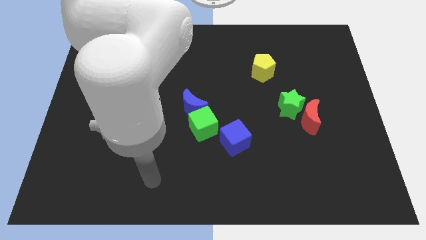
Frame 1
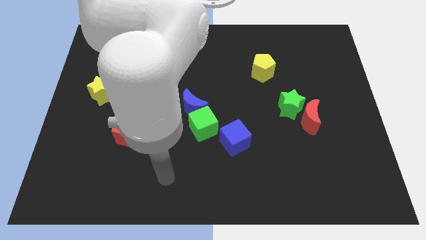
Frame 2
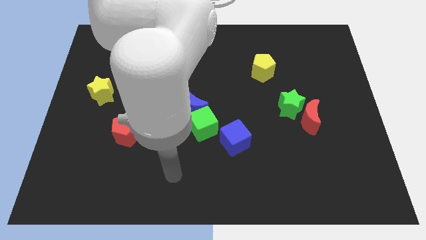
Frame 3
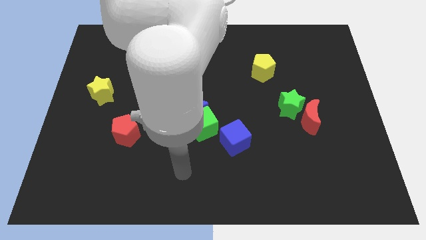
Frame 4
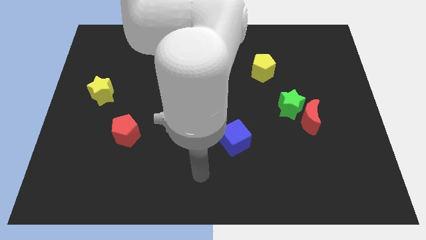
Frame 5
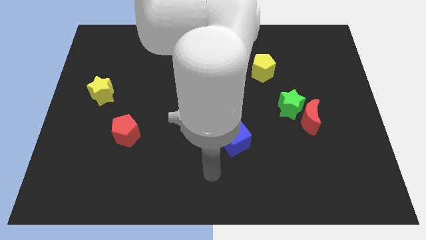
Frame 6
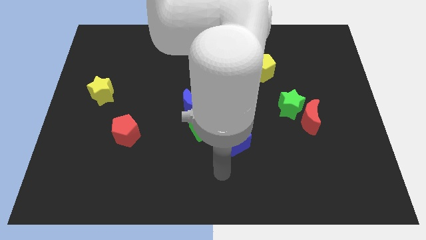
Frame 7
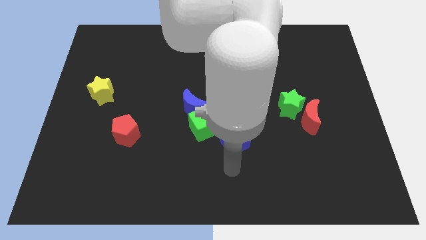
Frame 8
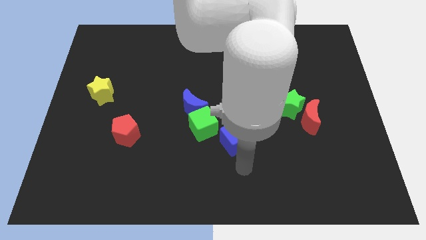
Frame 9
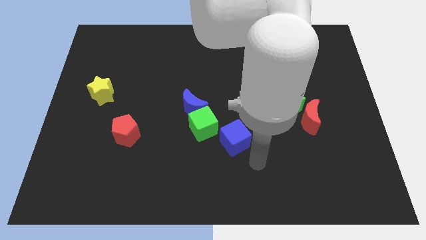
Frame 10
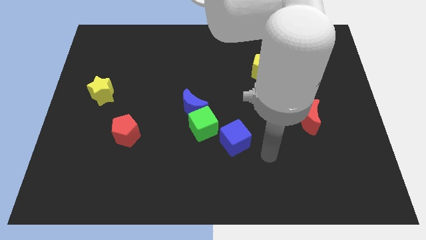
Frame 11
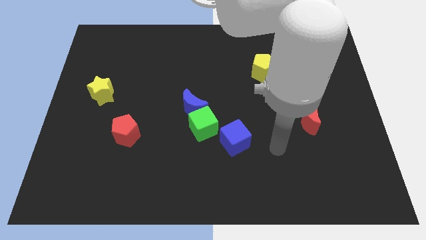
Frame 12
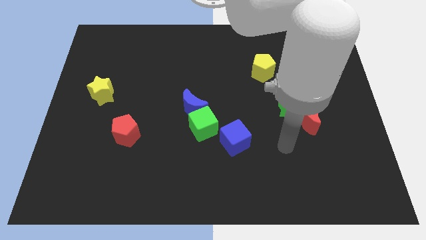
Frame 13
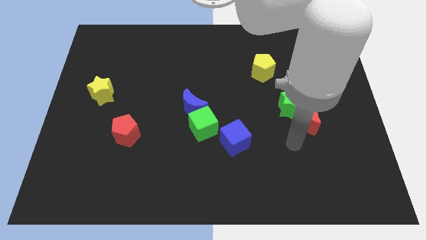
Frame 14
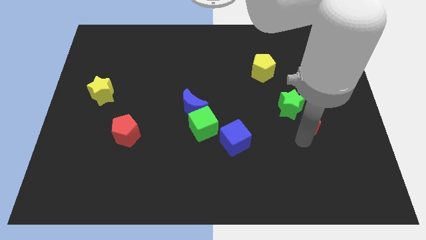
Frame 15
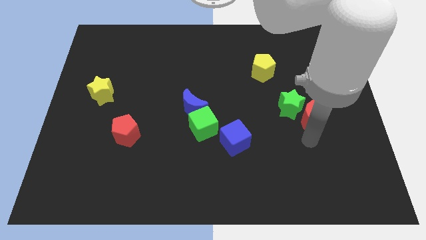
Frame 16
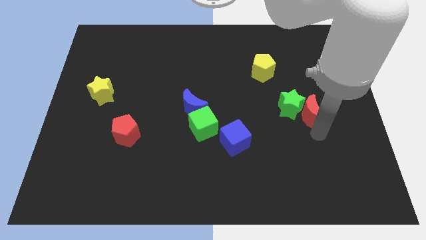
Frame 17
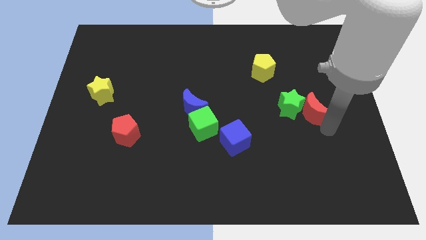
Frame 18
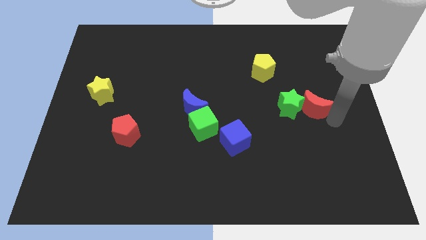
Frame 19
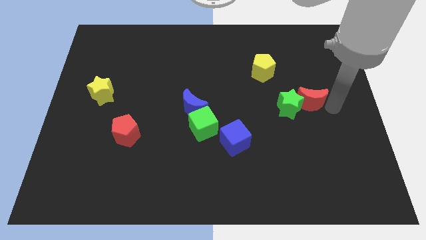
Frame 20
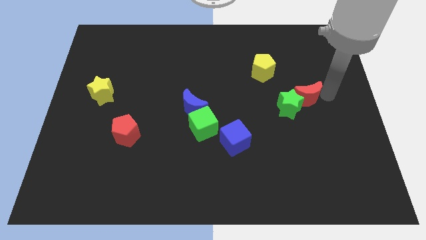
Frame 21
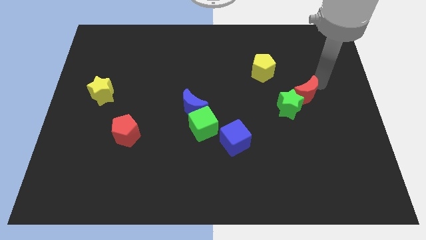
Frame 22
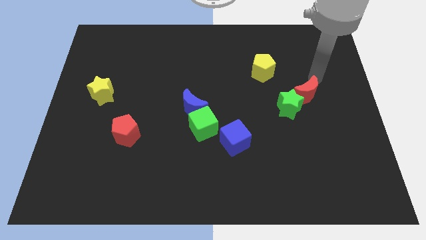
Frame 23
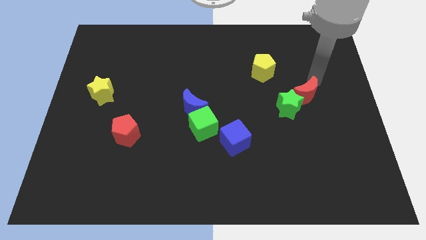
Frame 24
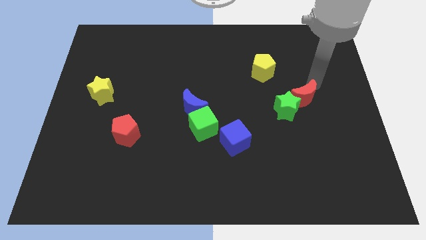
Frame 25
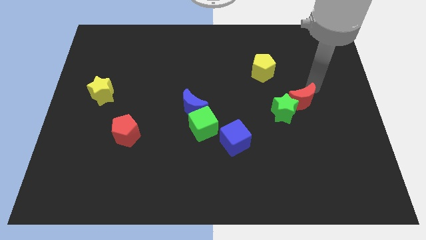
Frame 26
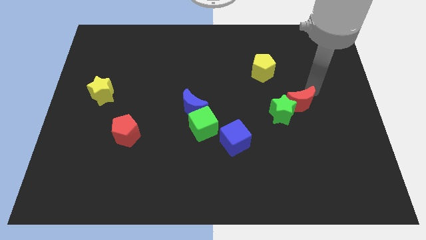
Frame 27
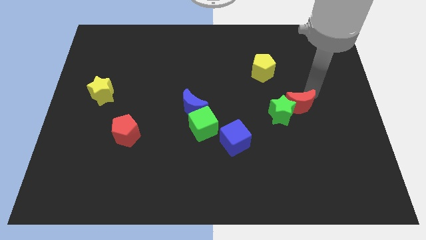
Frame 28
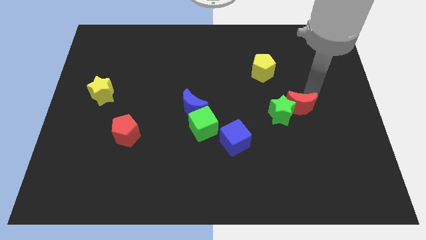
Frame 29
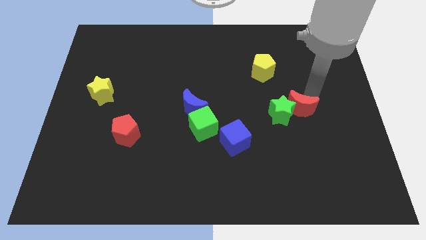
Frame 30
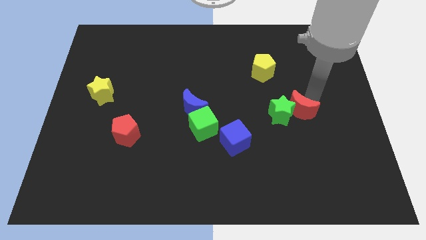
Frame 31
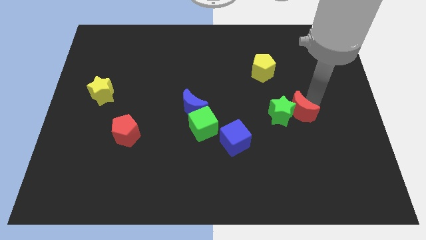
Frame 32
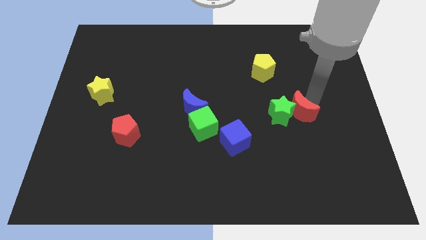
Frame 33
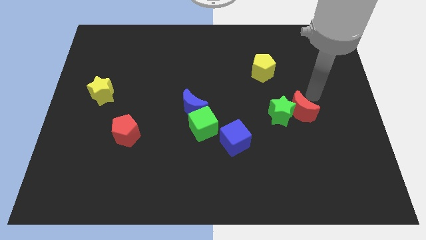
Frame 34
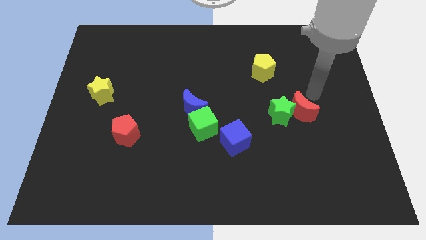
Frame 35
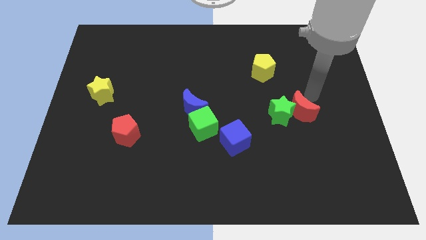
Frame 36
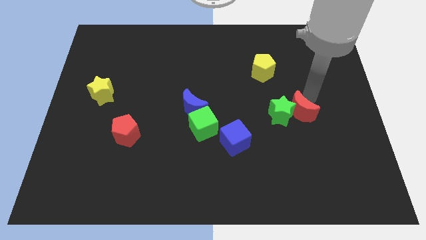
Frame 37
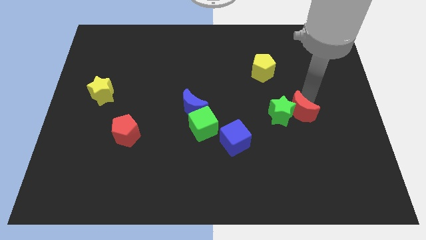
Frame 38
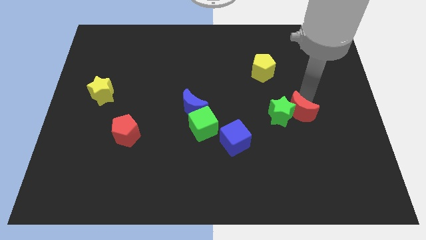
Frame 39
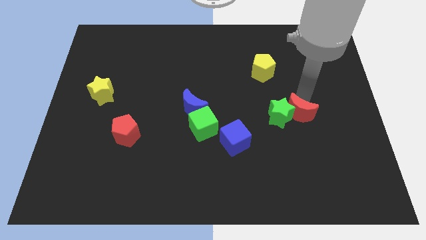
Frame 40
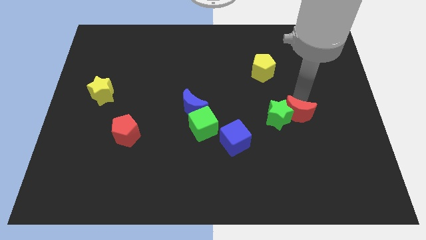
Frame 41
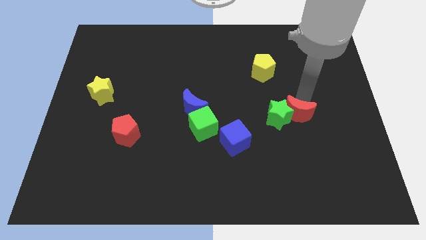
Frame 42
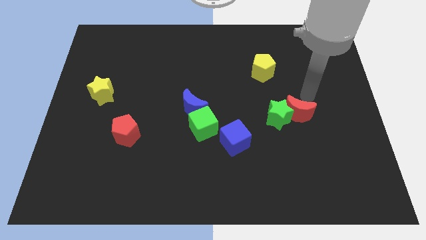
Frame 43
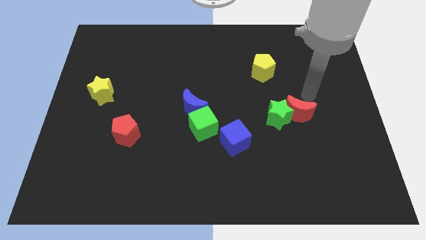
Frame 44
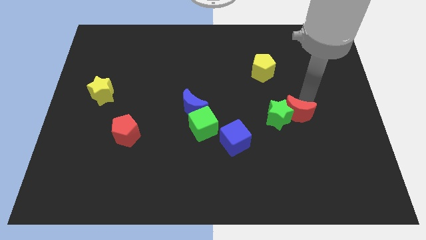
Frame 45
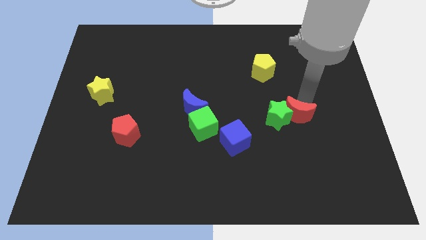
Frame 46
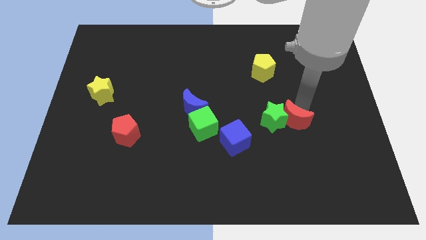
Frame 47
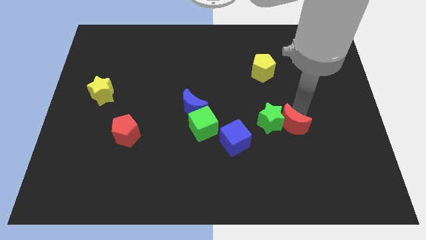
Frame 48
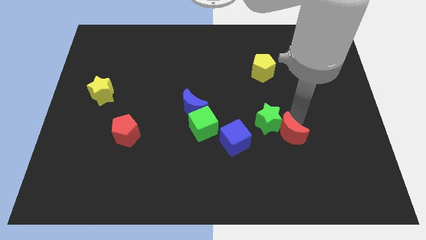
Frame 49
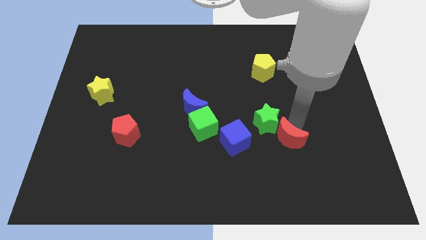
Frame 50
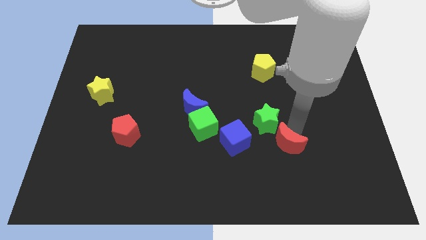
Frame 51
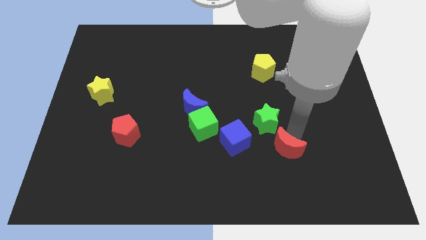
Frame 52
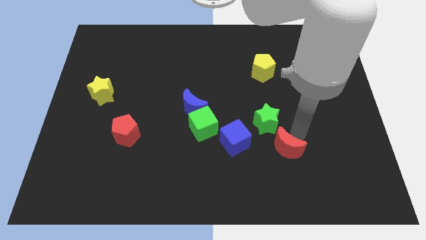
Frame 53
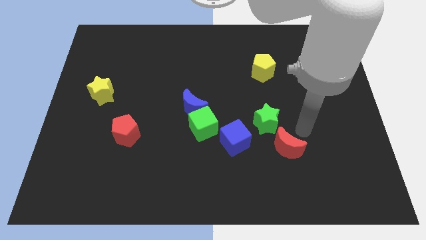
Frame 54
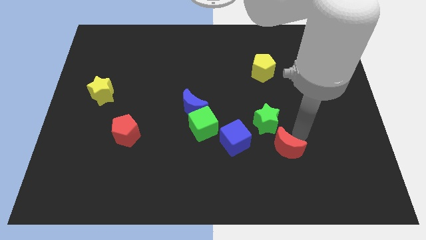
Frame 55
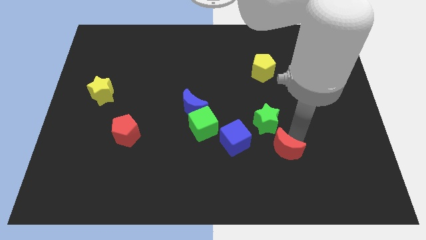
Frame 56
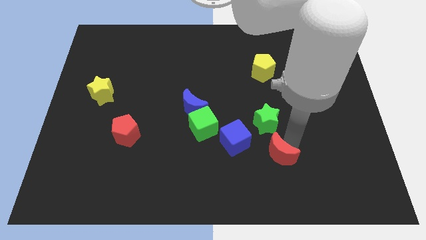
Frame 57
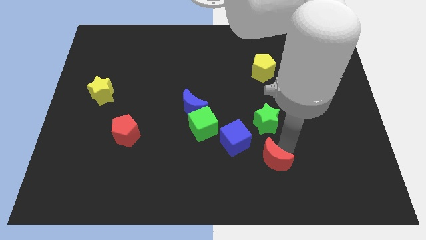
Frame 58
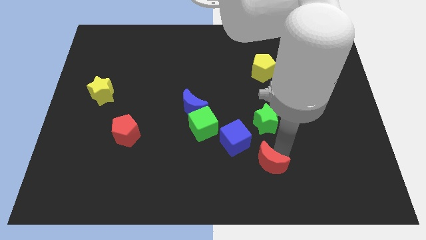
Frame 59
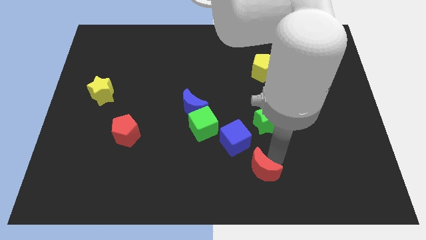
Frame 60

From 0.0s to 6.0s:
put the red moon to the bottom side

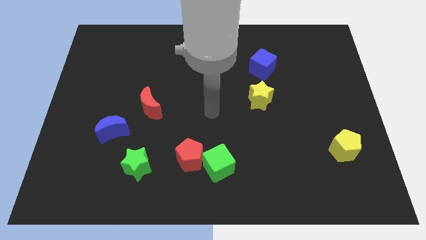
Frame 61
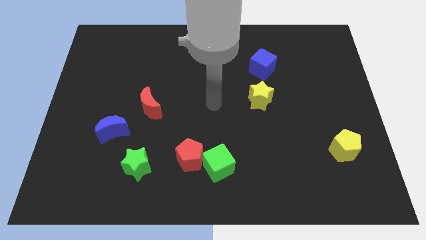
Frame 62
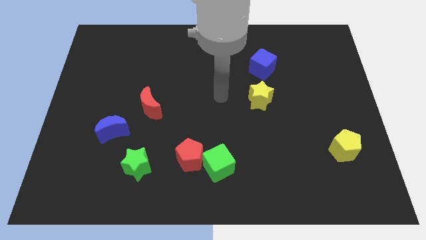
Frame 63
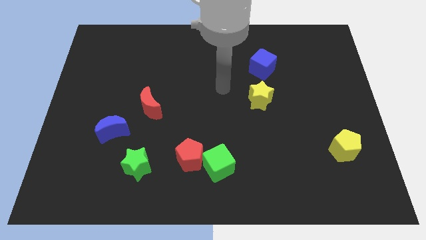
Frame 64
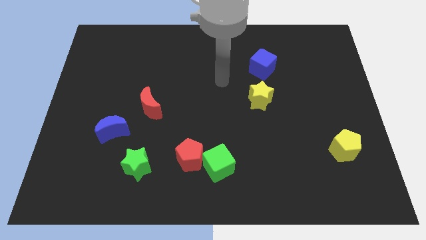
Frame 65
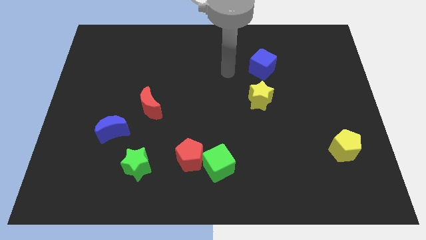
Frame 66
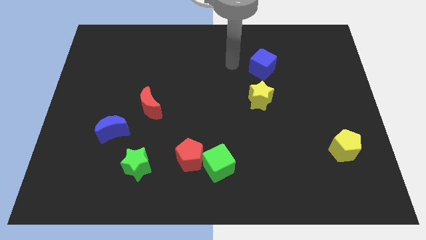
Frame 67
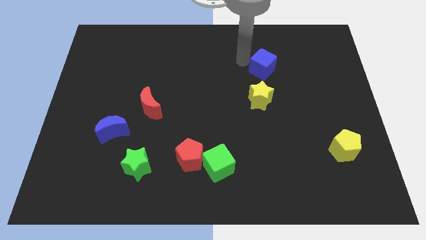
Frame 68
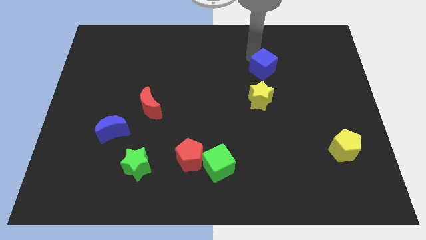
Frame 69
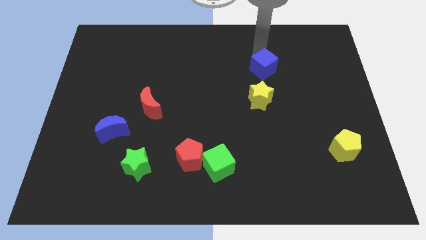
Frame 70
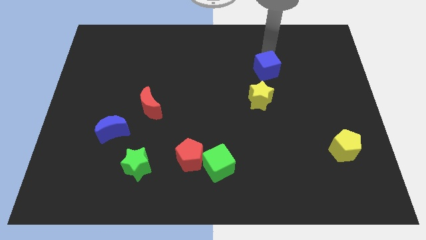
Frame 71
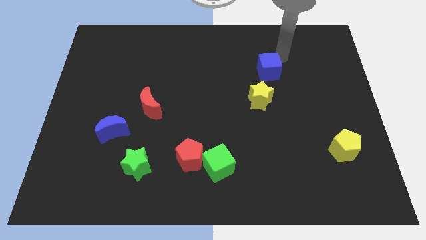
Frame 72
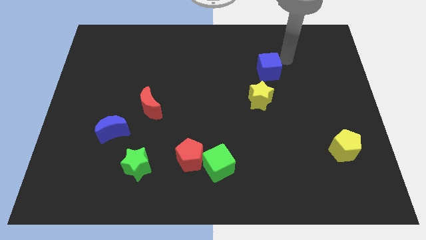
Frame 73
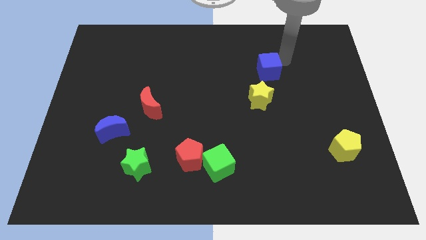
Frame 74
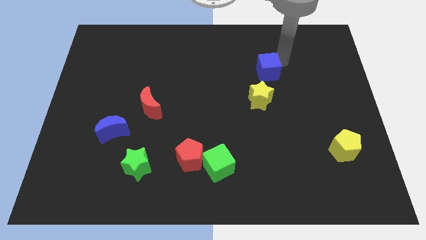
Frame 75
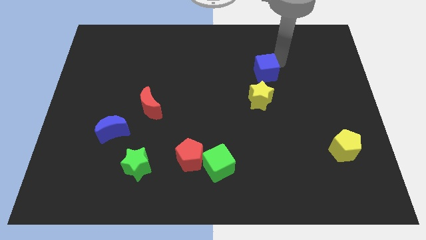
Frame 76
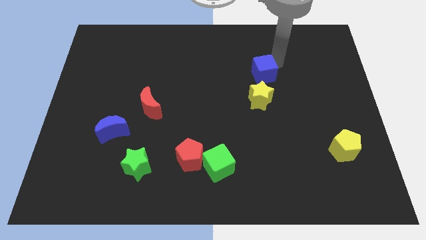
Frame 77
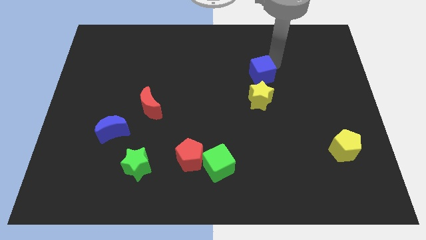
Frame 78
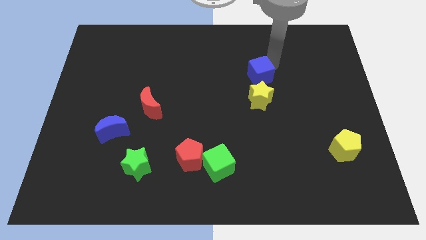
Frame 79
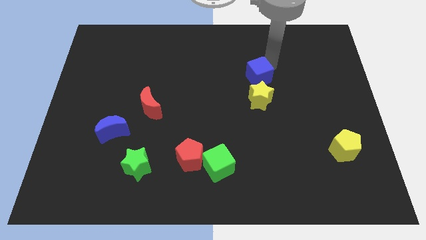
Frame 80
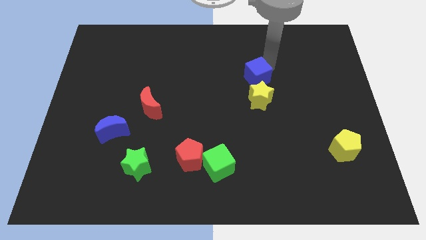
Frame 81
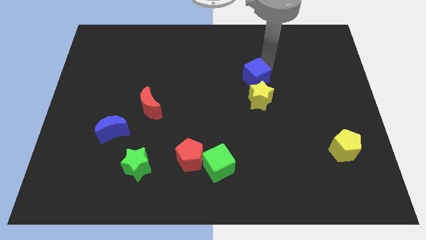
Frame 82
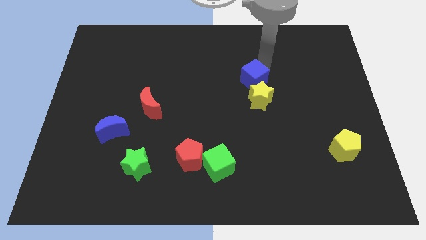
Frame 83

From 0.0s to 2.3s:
move the blue cube to the middle

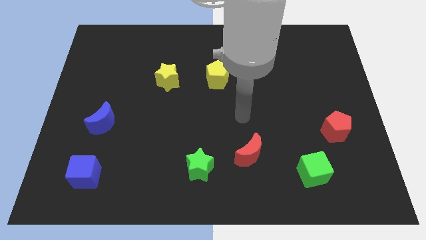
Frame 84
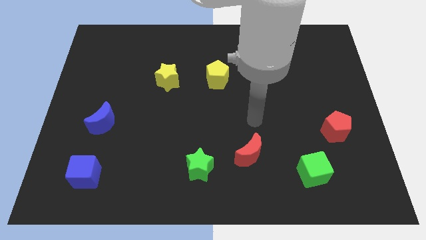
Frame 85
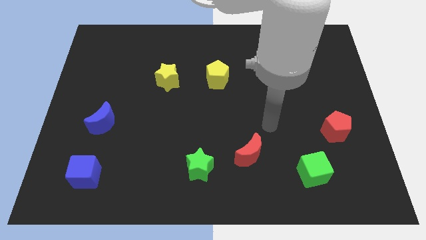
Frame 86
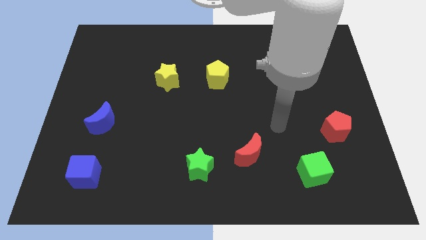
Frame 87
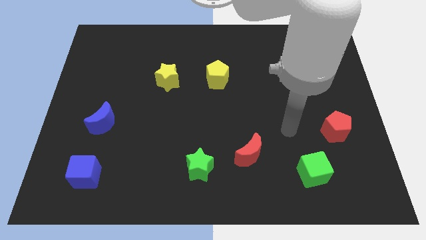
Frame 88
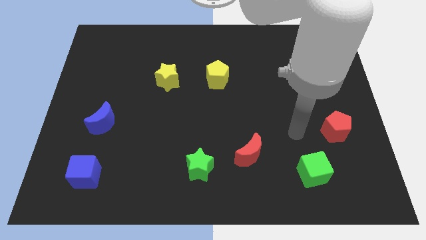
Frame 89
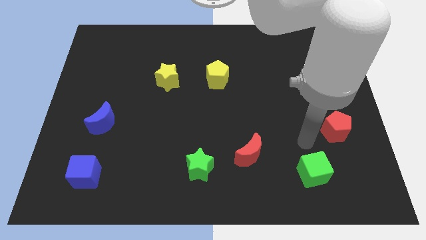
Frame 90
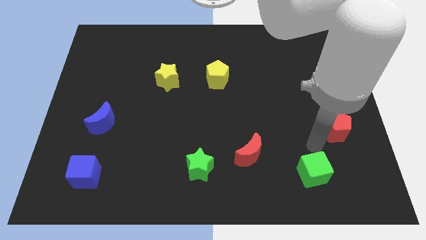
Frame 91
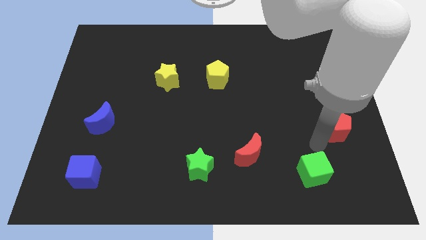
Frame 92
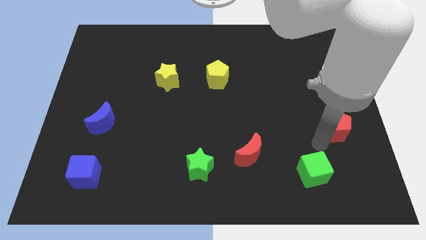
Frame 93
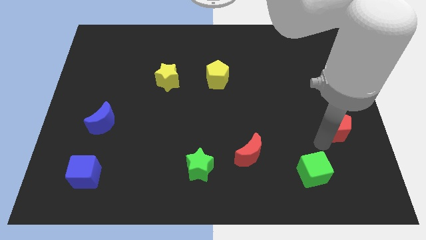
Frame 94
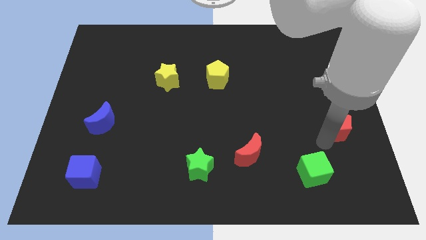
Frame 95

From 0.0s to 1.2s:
put the red pentagon to the center right
